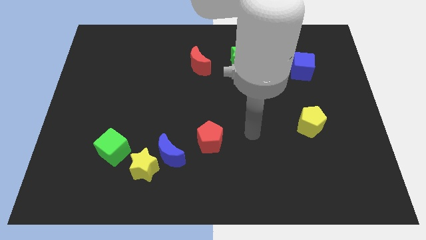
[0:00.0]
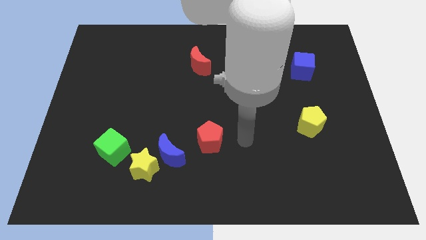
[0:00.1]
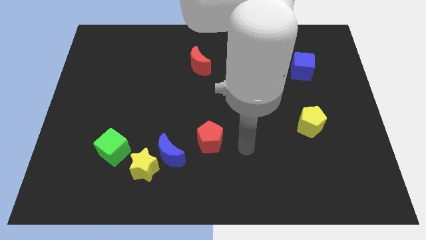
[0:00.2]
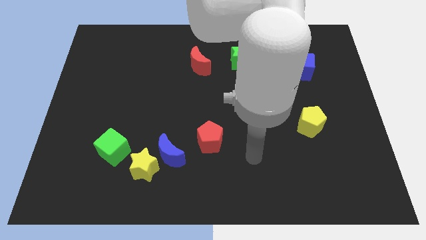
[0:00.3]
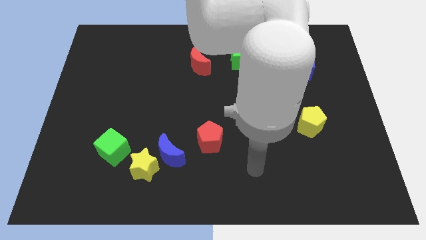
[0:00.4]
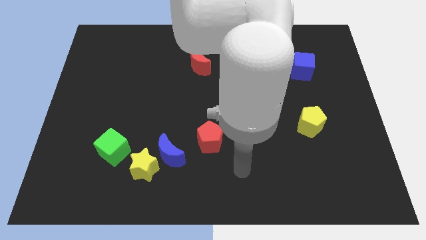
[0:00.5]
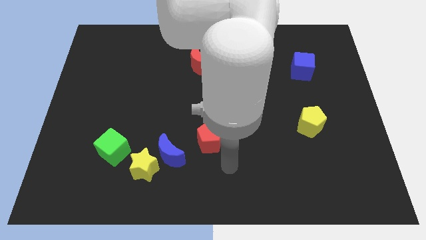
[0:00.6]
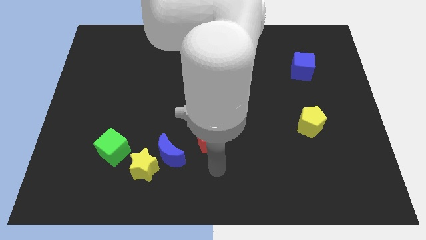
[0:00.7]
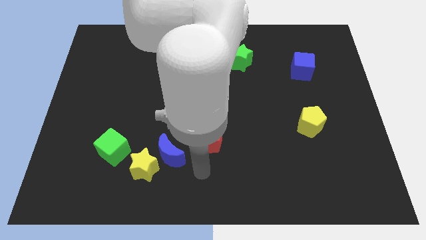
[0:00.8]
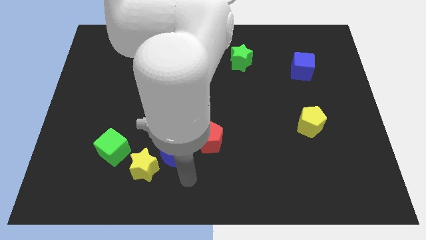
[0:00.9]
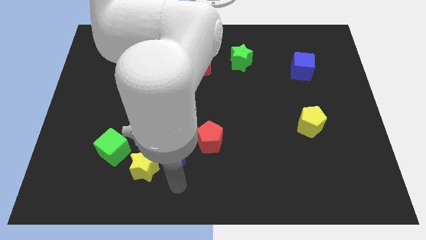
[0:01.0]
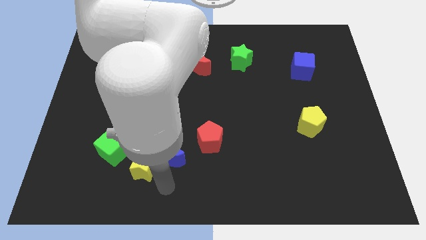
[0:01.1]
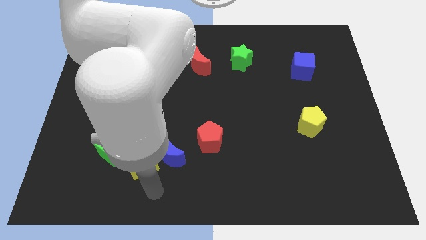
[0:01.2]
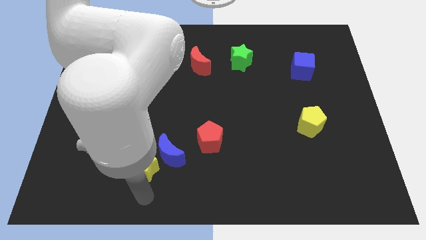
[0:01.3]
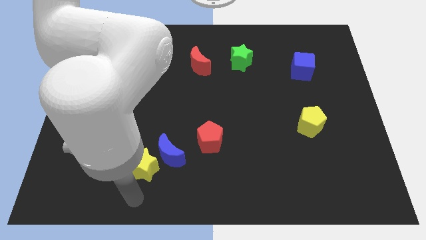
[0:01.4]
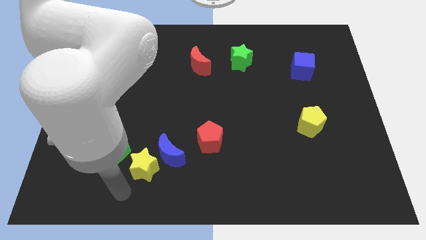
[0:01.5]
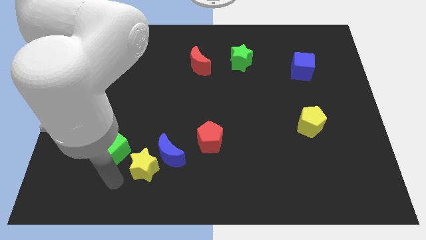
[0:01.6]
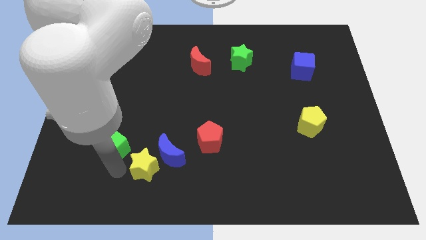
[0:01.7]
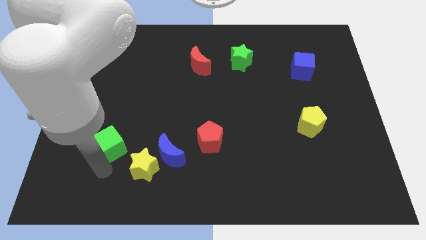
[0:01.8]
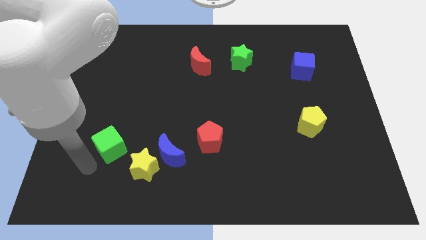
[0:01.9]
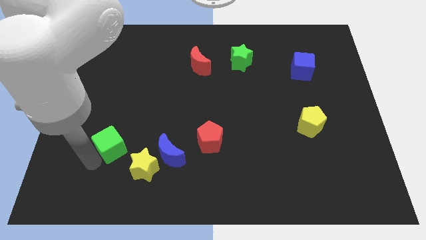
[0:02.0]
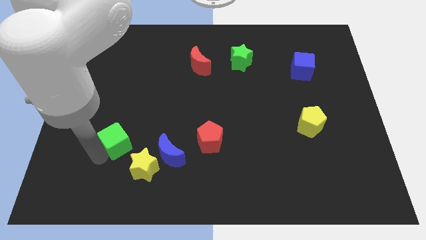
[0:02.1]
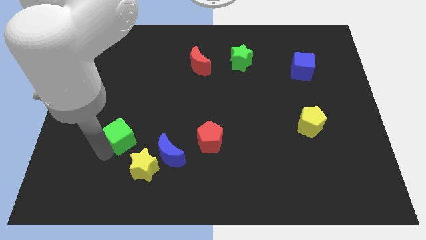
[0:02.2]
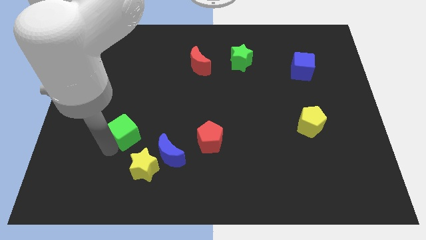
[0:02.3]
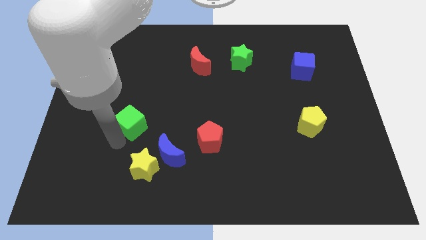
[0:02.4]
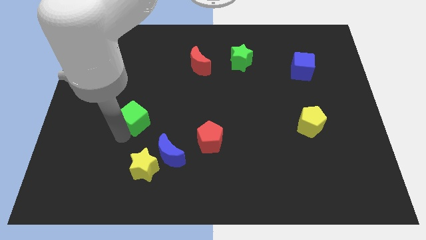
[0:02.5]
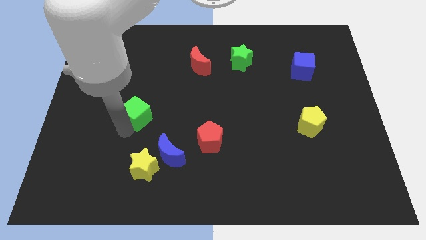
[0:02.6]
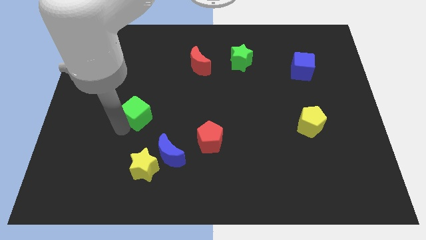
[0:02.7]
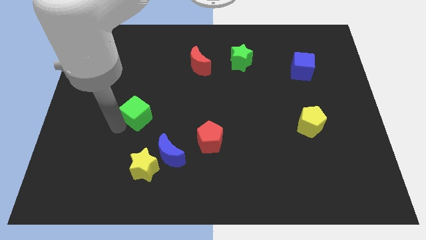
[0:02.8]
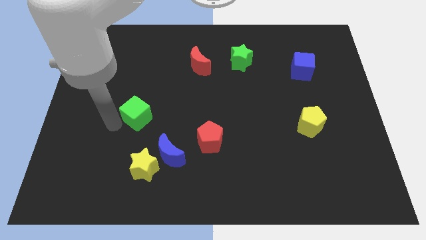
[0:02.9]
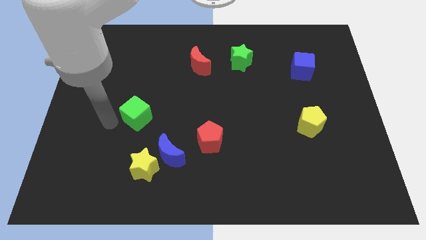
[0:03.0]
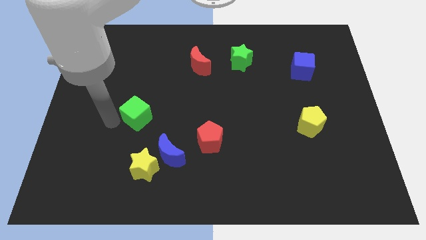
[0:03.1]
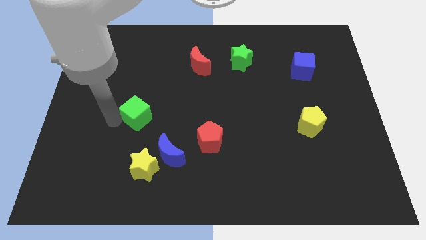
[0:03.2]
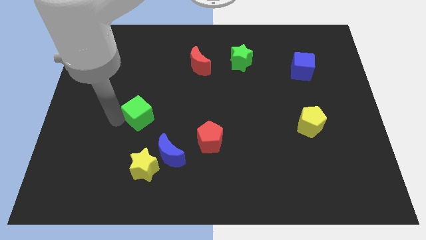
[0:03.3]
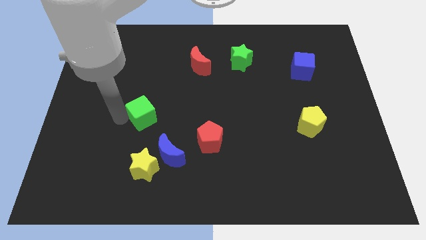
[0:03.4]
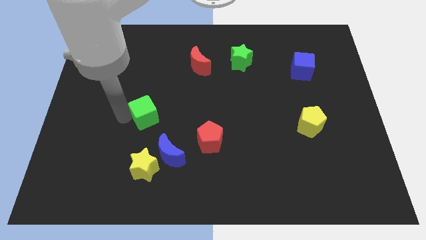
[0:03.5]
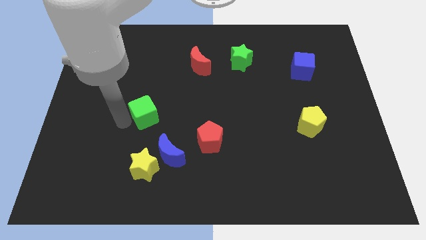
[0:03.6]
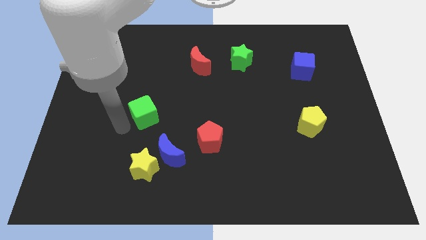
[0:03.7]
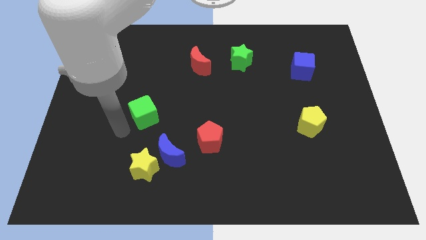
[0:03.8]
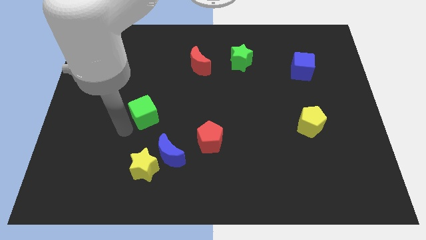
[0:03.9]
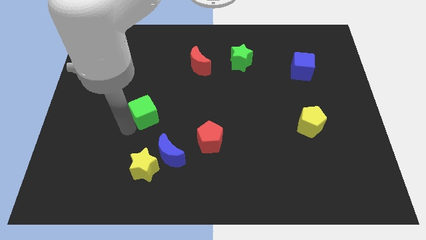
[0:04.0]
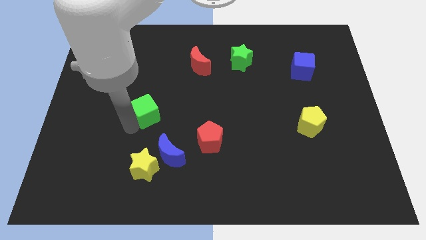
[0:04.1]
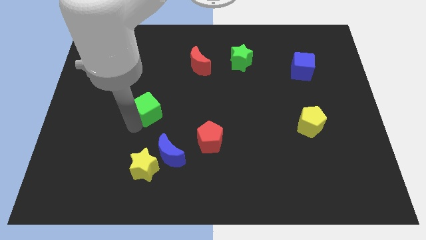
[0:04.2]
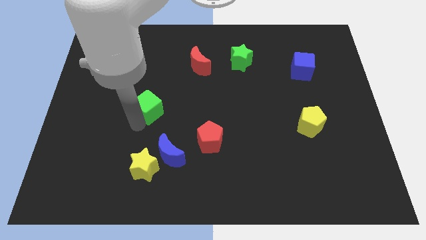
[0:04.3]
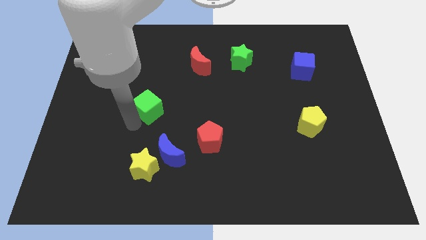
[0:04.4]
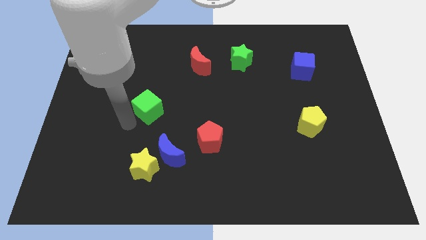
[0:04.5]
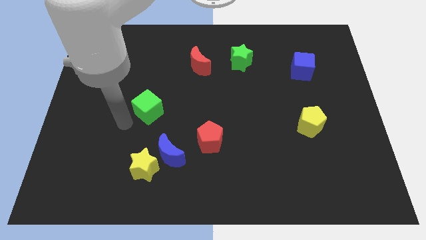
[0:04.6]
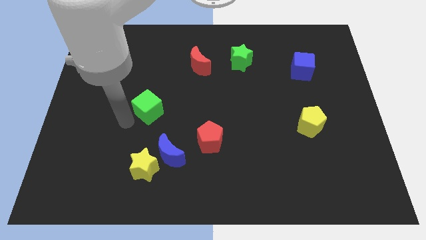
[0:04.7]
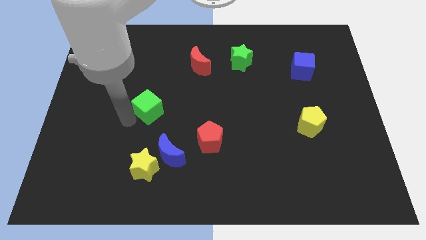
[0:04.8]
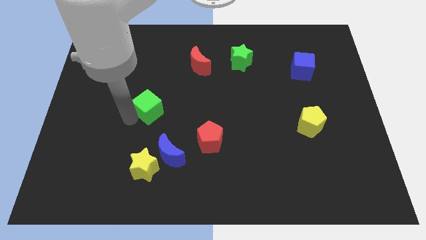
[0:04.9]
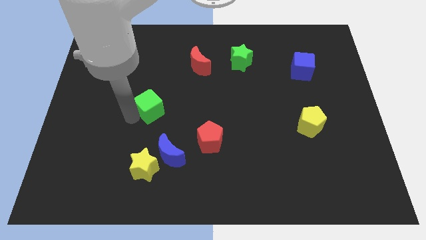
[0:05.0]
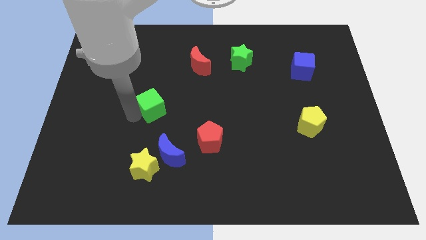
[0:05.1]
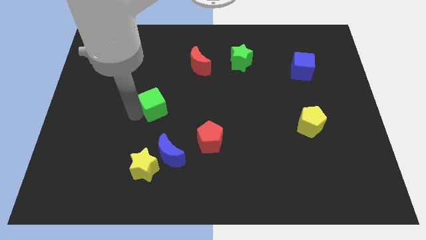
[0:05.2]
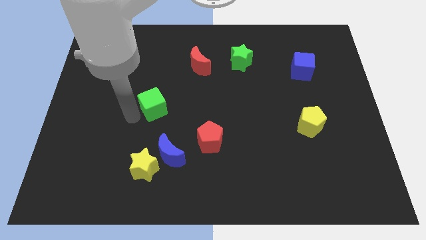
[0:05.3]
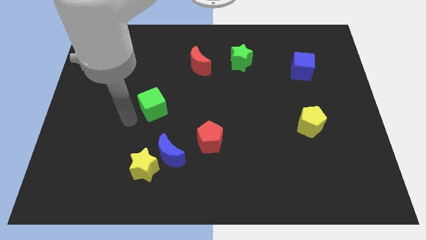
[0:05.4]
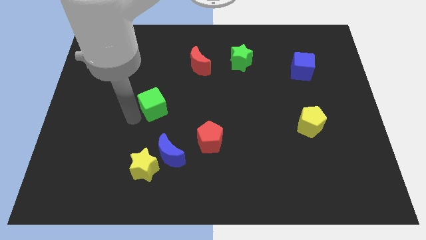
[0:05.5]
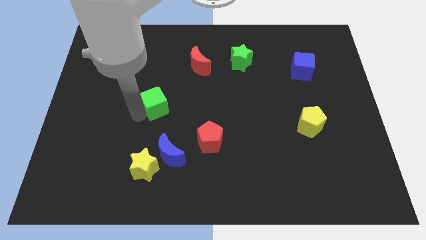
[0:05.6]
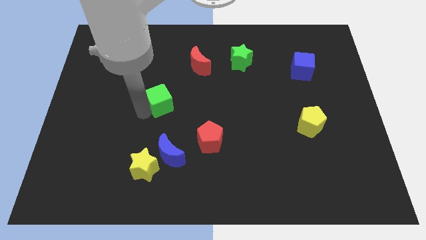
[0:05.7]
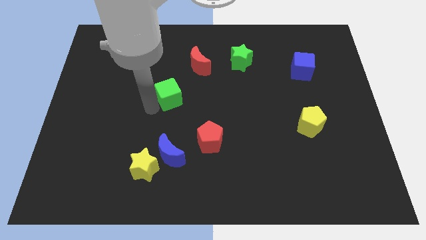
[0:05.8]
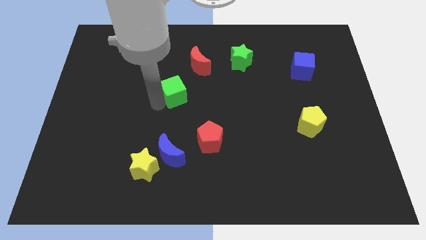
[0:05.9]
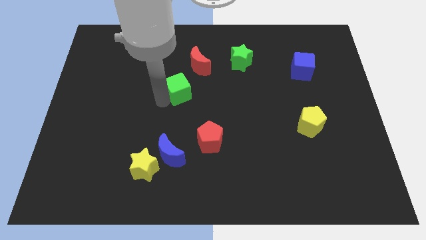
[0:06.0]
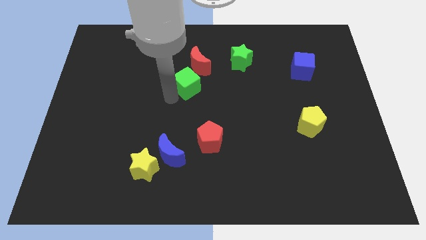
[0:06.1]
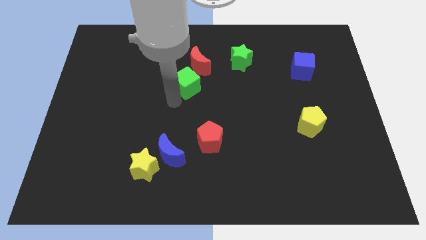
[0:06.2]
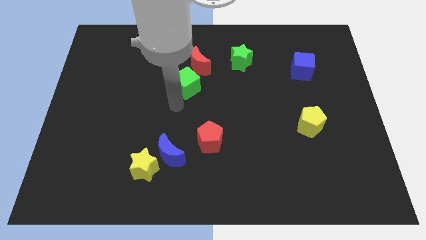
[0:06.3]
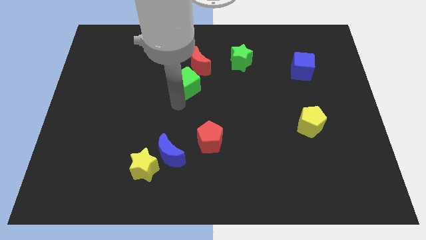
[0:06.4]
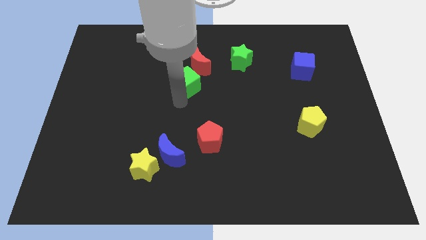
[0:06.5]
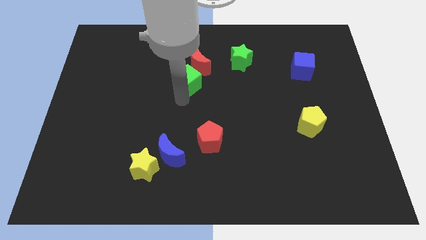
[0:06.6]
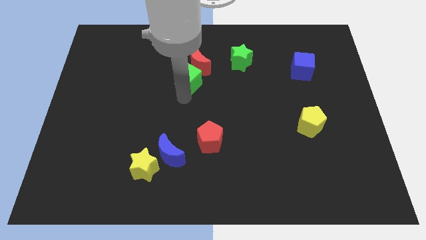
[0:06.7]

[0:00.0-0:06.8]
move the green cube close to the red moon

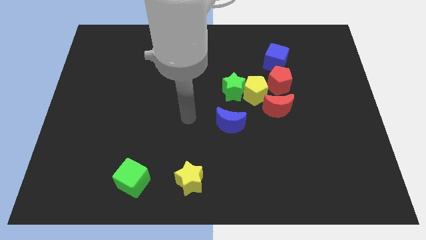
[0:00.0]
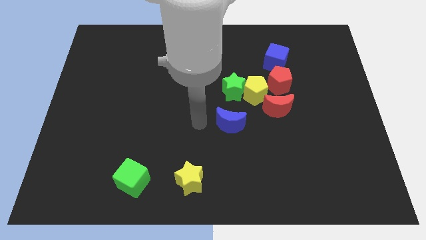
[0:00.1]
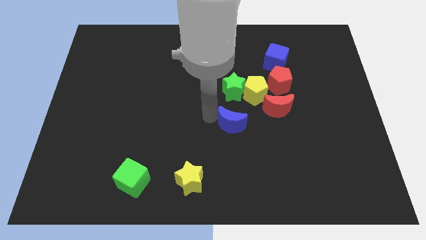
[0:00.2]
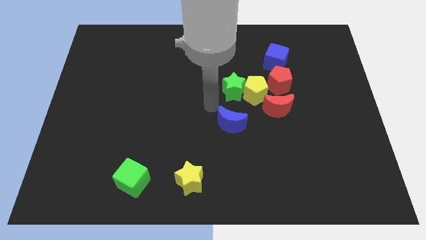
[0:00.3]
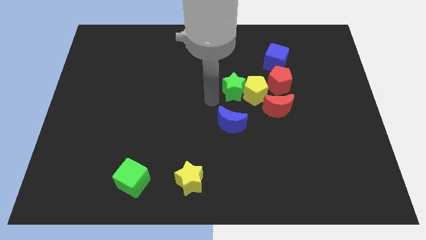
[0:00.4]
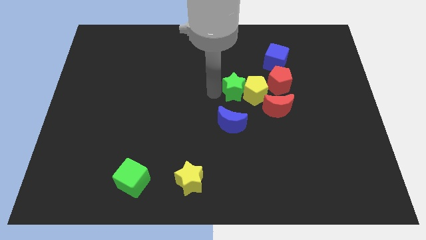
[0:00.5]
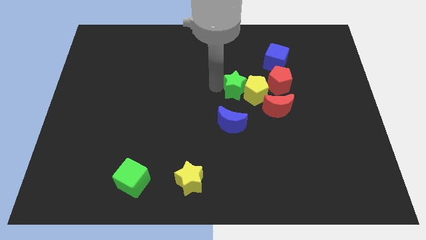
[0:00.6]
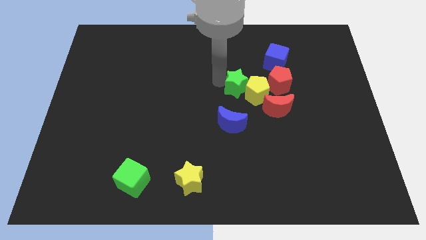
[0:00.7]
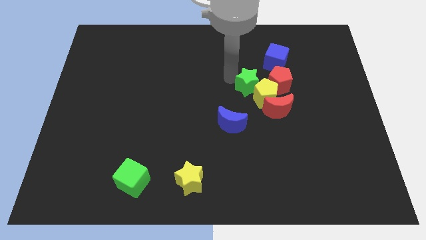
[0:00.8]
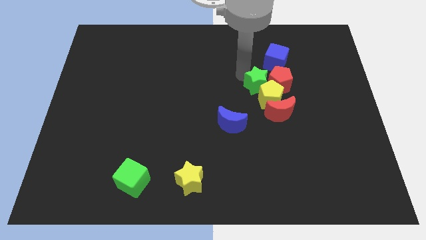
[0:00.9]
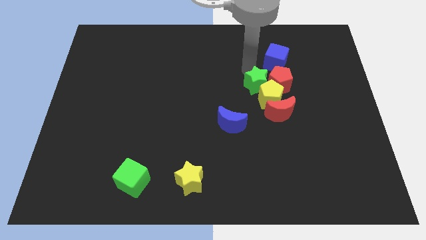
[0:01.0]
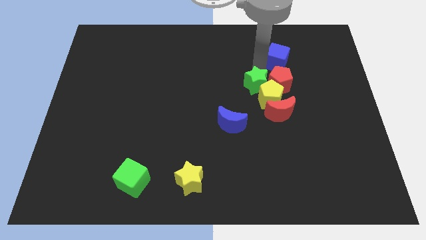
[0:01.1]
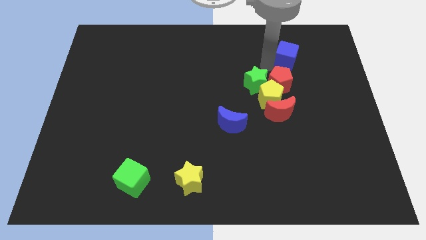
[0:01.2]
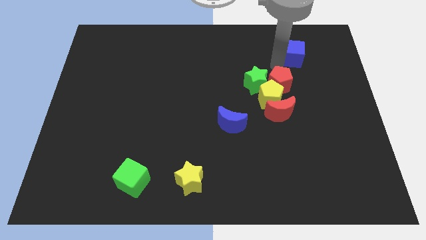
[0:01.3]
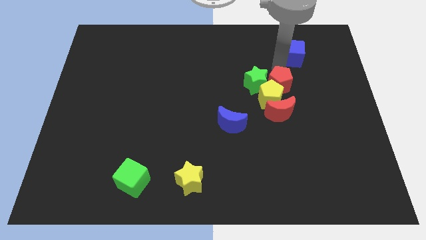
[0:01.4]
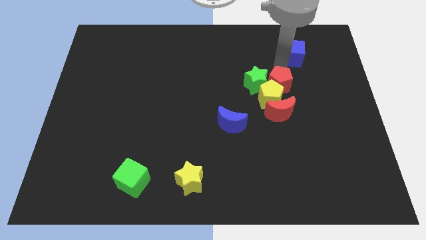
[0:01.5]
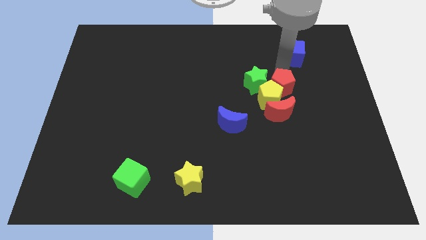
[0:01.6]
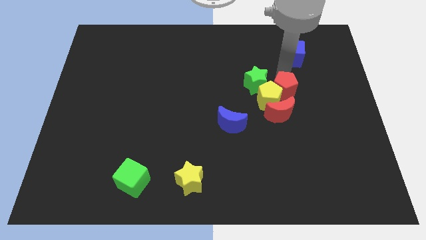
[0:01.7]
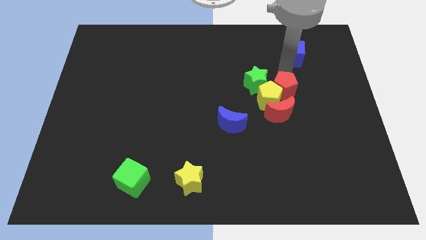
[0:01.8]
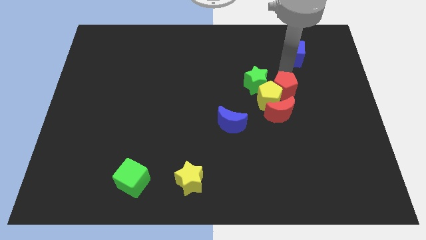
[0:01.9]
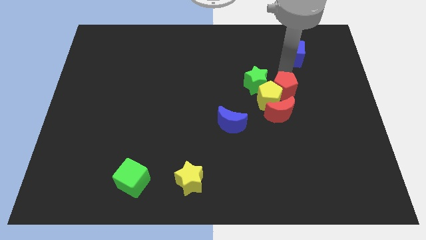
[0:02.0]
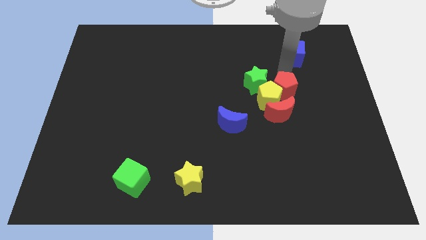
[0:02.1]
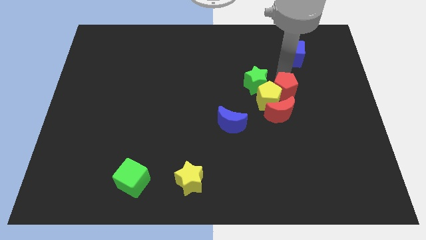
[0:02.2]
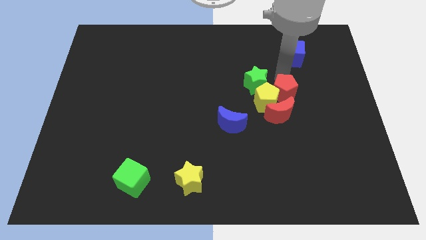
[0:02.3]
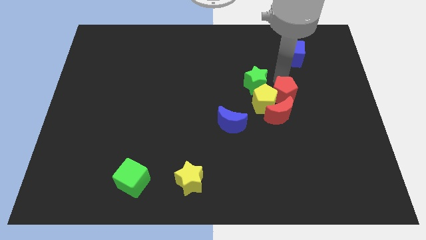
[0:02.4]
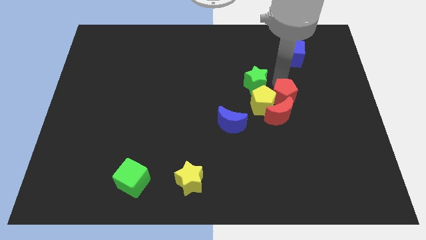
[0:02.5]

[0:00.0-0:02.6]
push the red pentagon to the red moon
